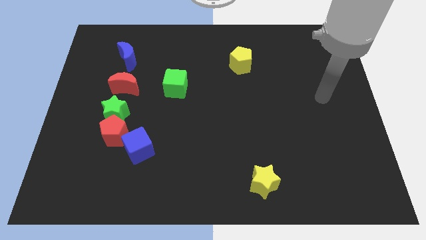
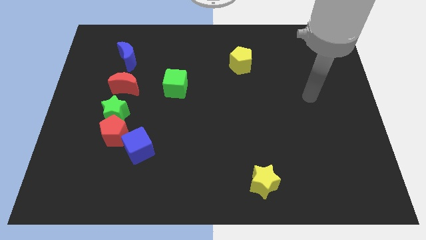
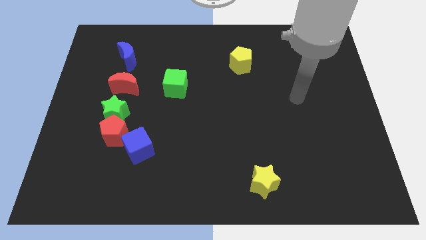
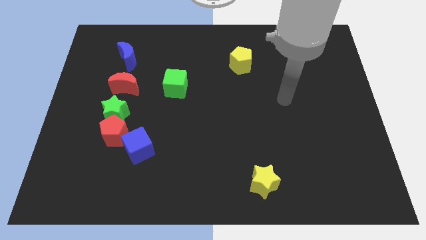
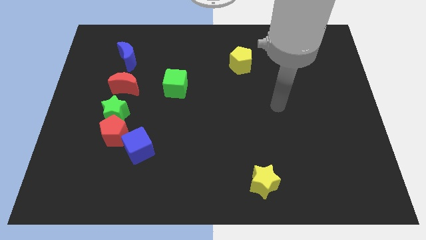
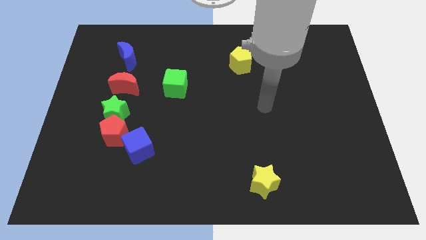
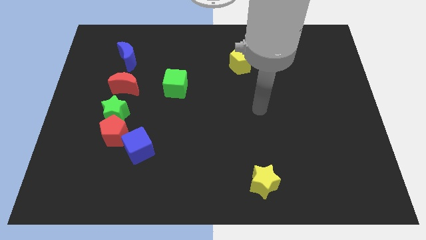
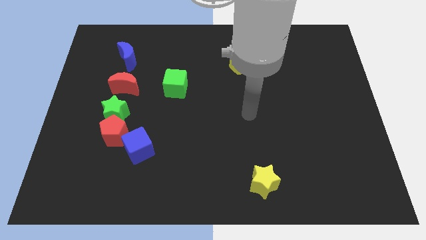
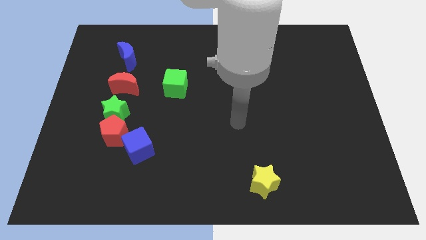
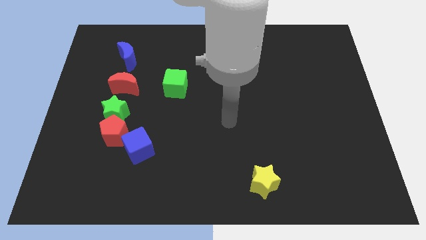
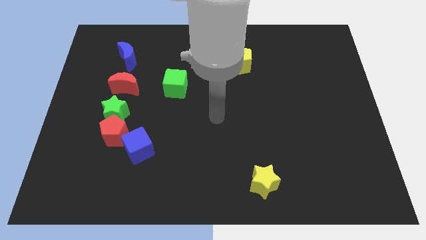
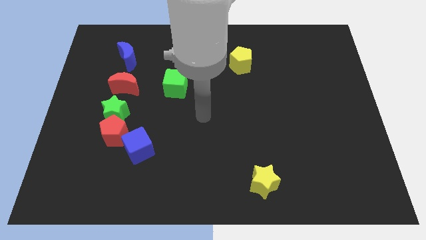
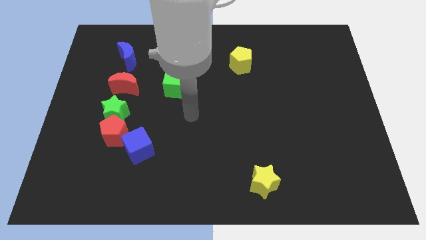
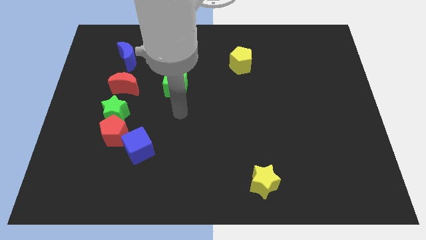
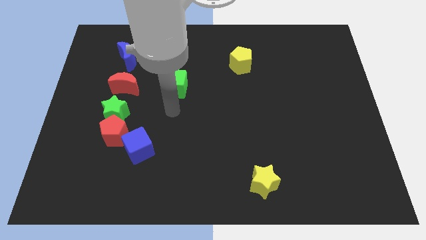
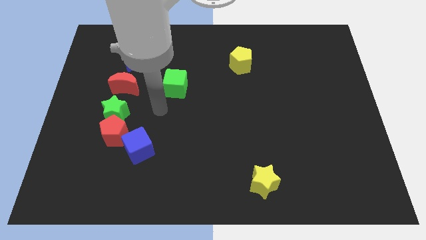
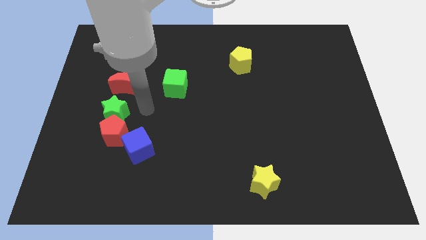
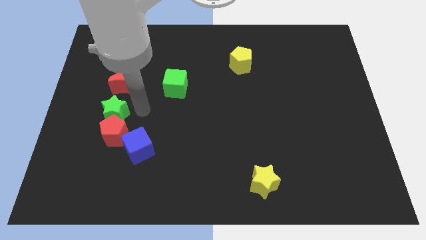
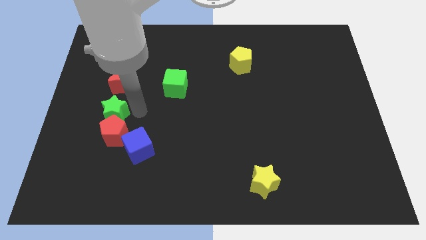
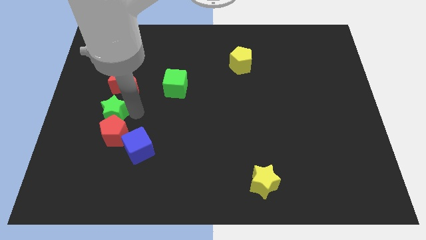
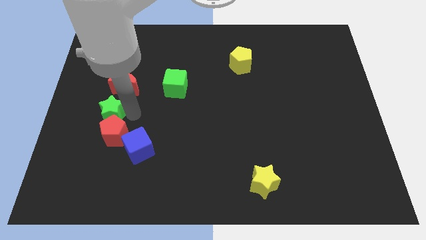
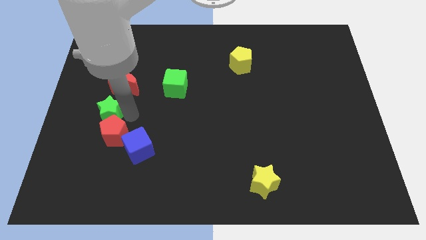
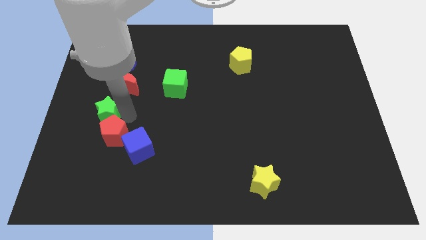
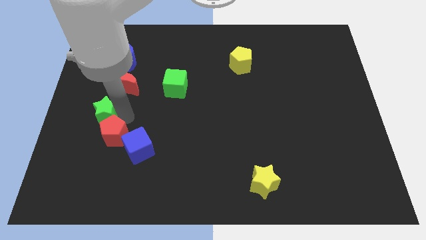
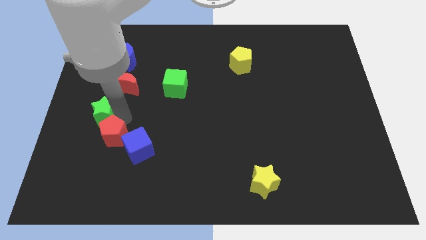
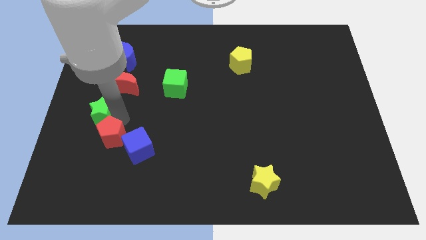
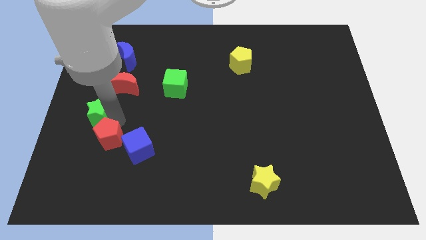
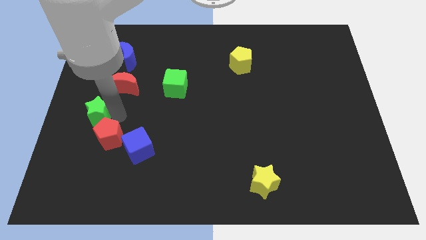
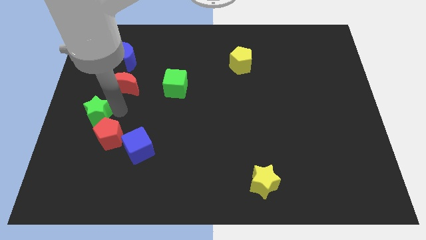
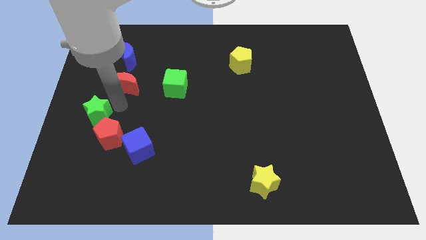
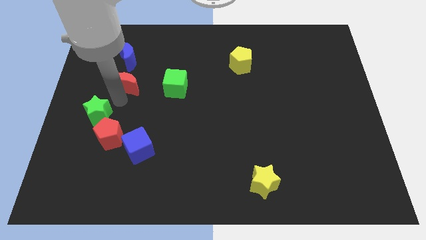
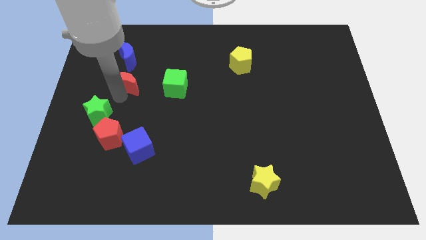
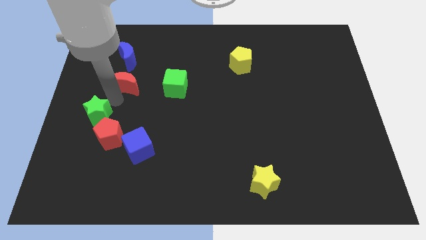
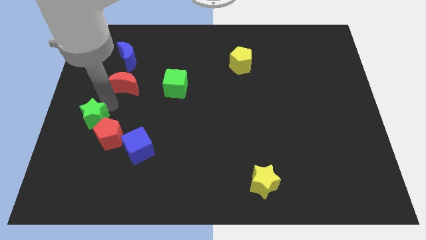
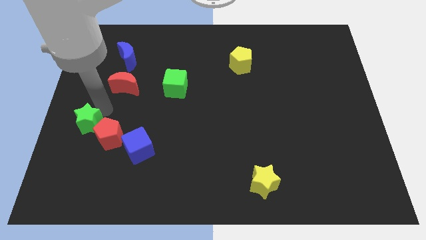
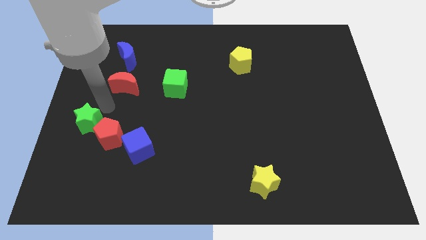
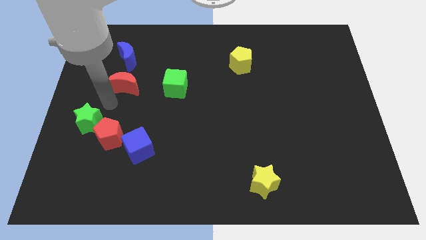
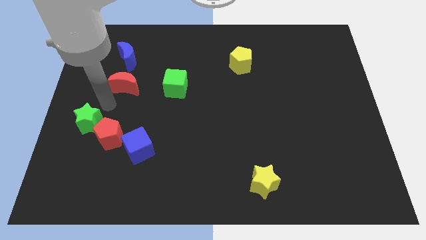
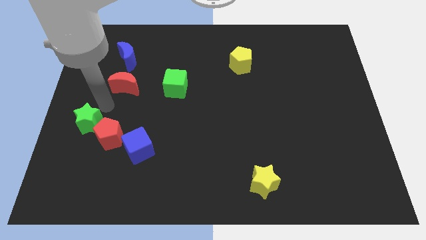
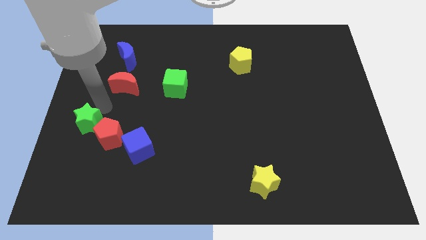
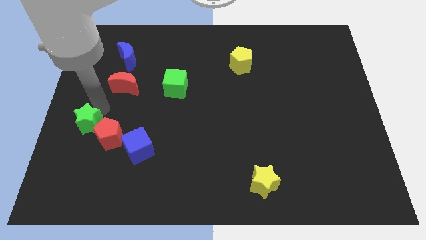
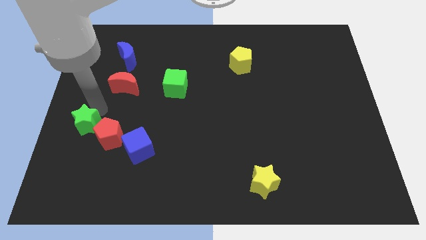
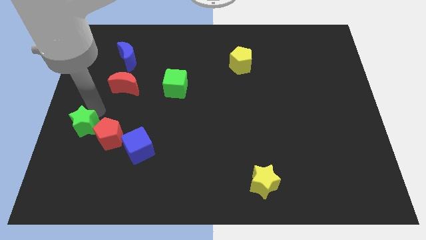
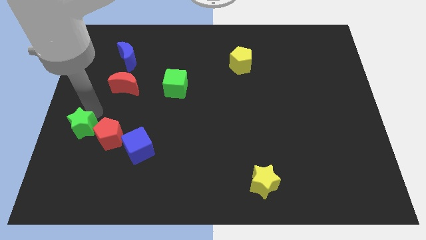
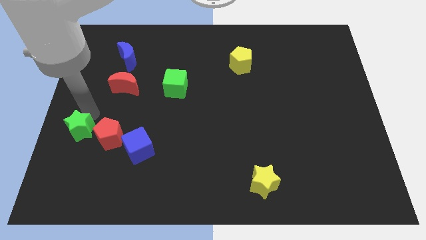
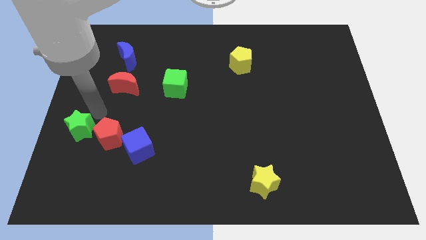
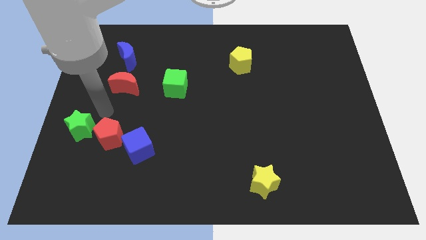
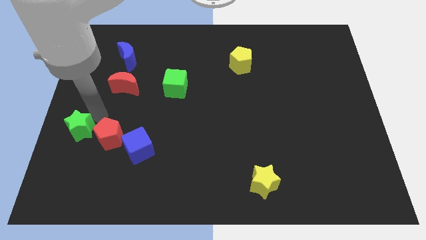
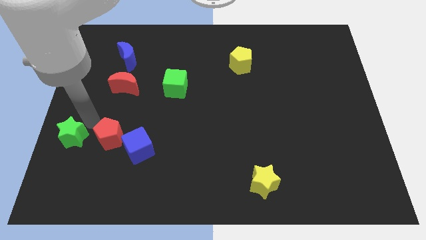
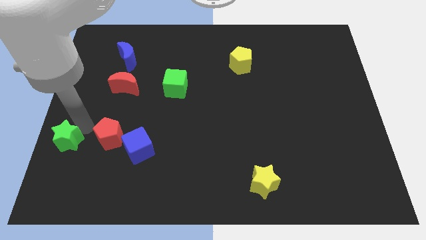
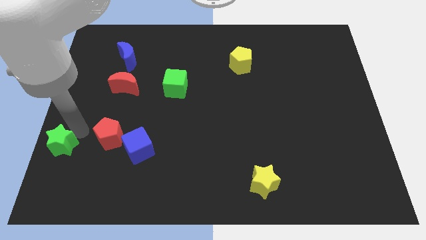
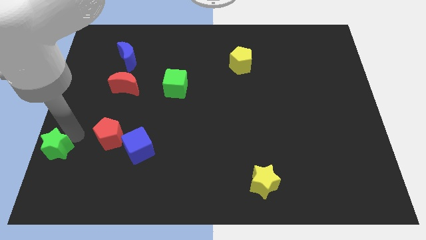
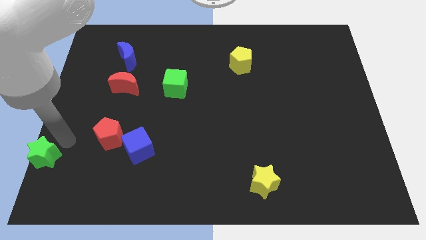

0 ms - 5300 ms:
slide the green star to the bottom left
